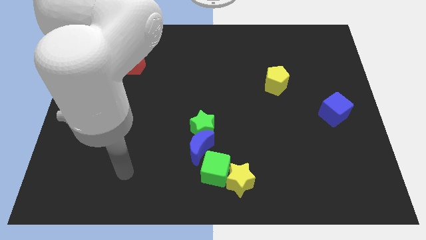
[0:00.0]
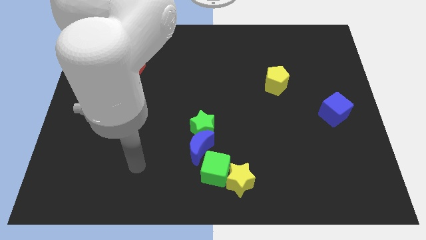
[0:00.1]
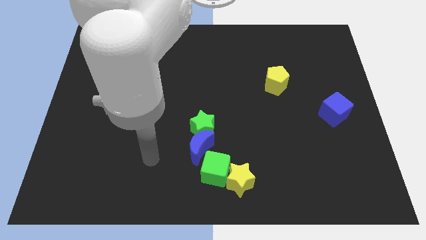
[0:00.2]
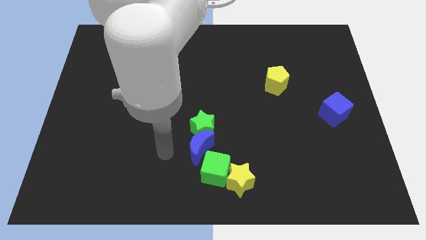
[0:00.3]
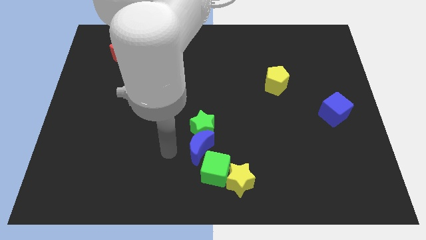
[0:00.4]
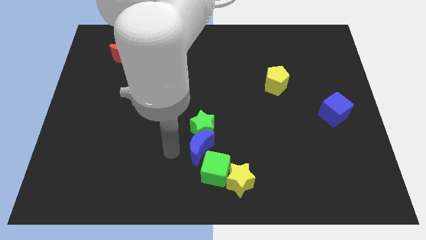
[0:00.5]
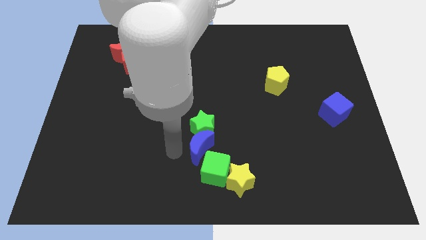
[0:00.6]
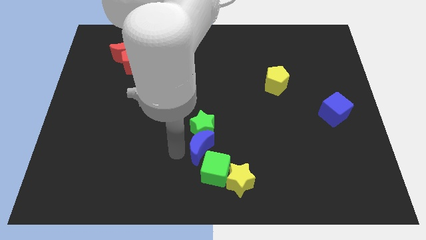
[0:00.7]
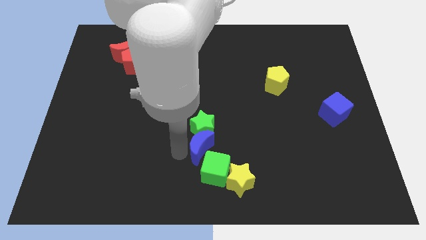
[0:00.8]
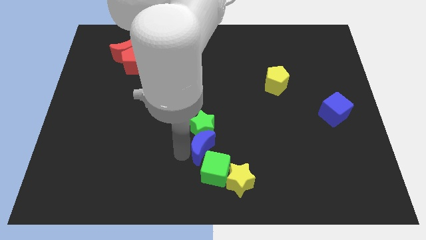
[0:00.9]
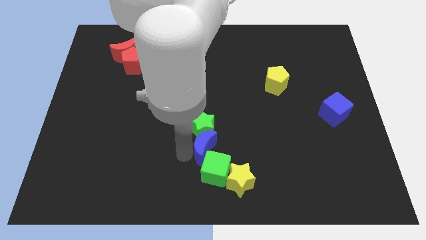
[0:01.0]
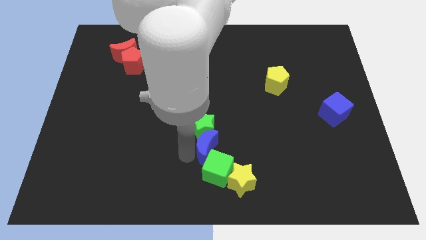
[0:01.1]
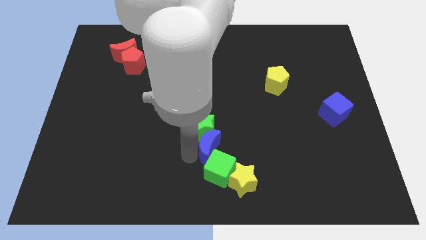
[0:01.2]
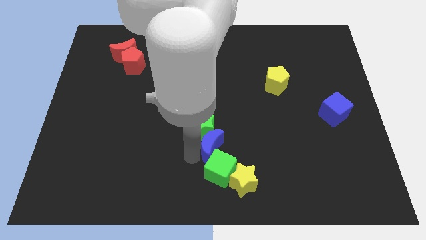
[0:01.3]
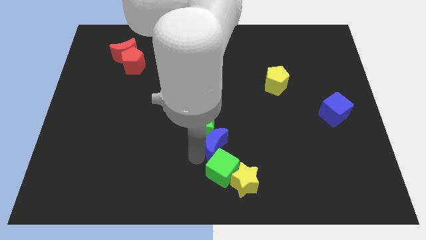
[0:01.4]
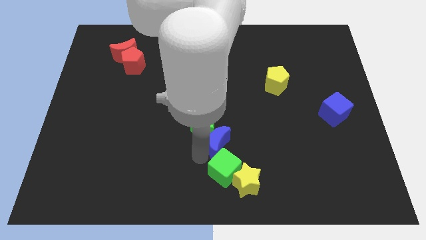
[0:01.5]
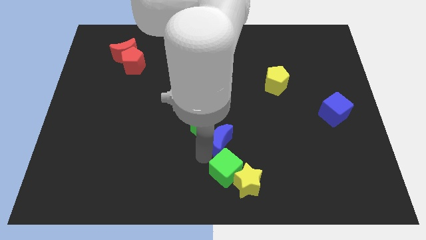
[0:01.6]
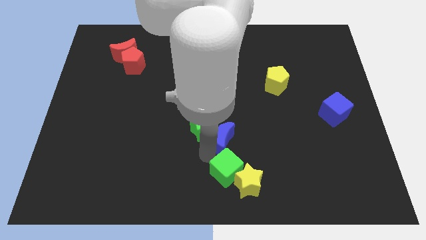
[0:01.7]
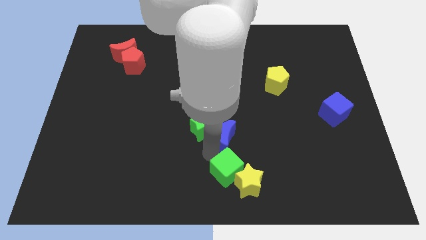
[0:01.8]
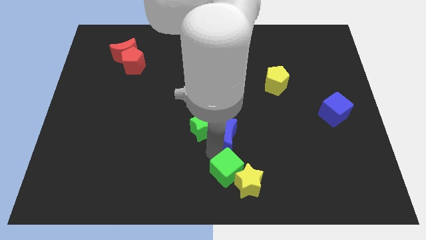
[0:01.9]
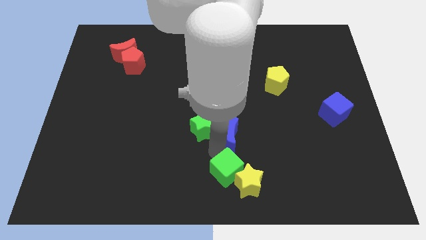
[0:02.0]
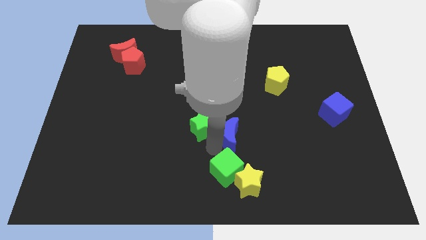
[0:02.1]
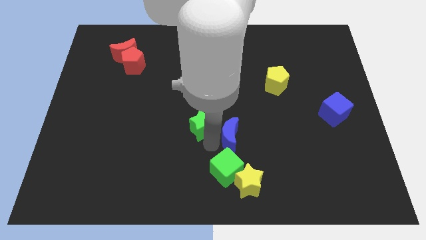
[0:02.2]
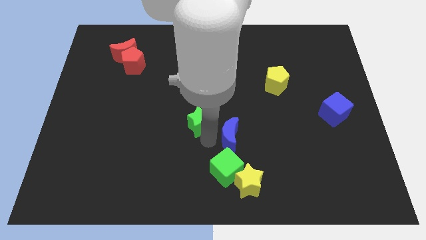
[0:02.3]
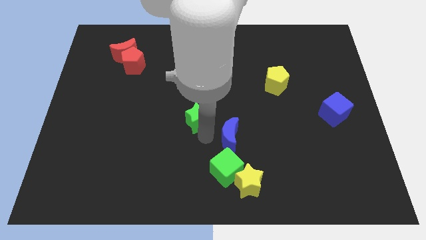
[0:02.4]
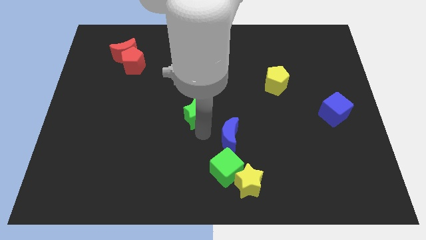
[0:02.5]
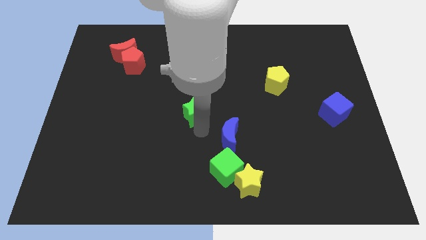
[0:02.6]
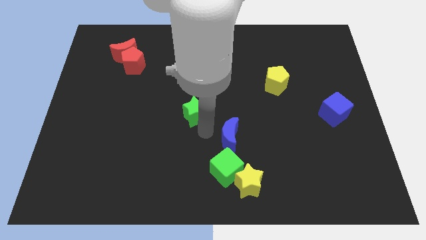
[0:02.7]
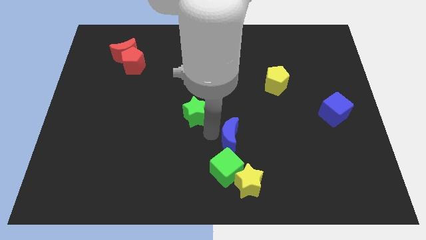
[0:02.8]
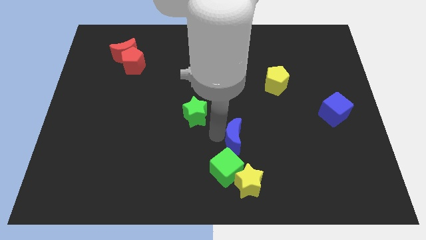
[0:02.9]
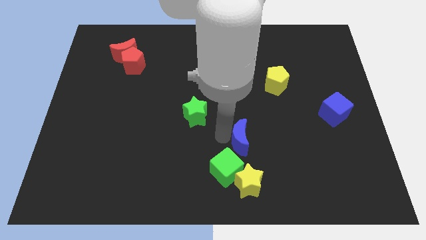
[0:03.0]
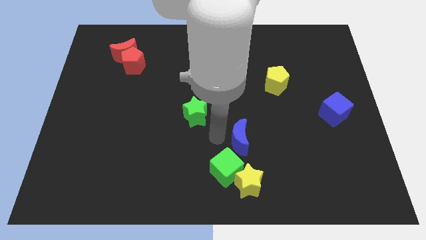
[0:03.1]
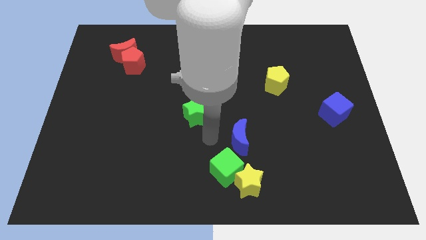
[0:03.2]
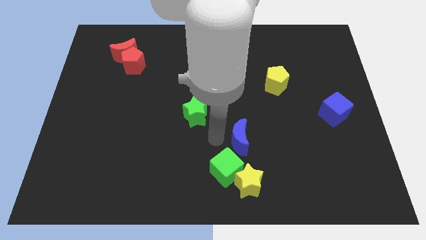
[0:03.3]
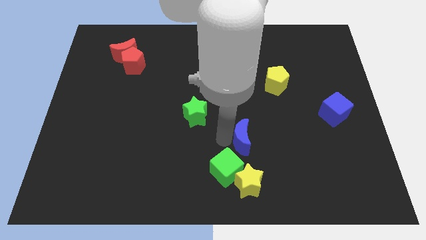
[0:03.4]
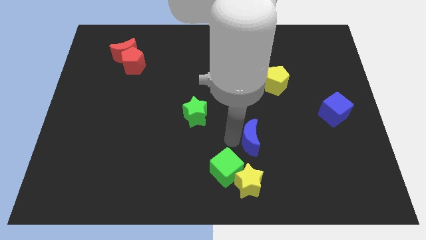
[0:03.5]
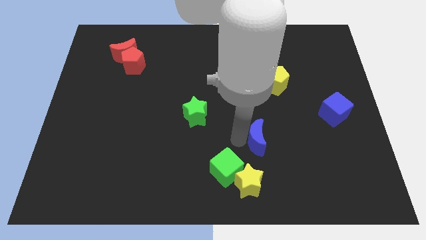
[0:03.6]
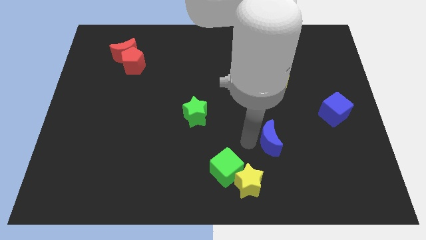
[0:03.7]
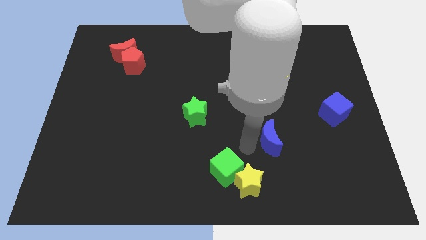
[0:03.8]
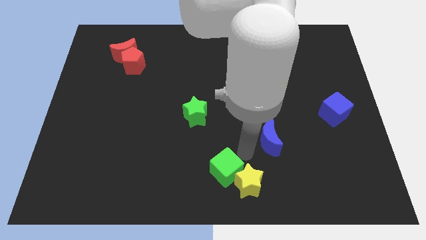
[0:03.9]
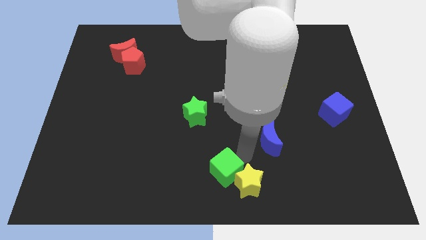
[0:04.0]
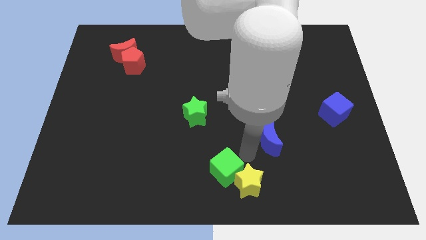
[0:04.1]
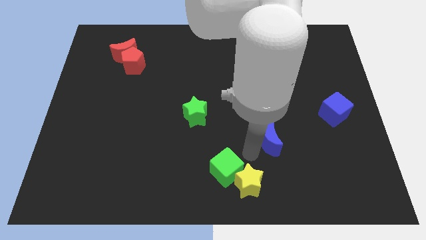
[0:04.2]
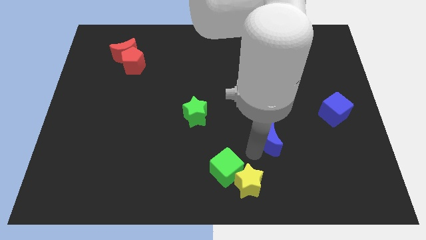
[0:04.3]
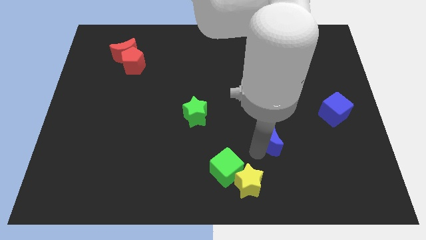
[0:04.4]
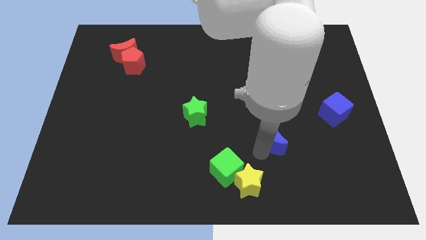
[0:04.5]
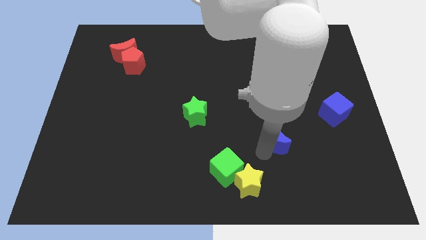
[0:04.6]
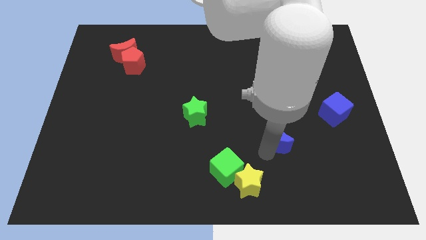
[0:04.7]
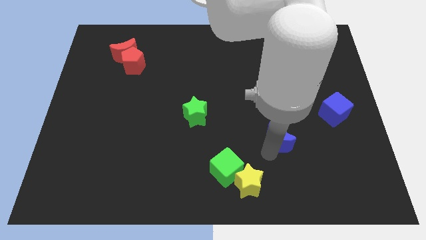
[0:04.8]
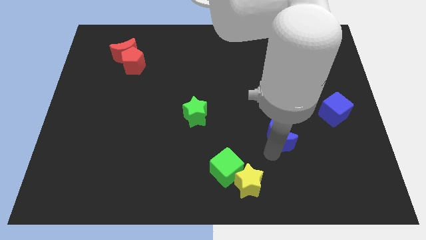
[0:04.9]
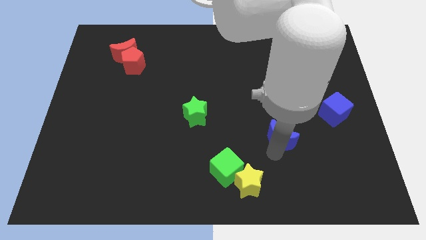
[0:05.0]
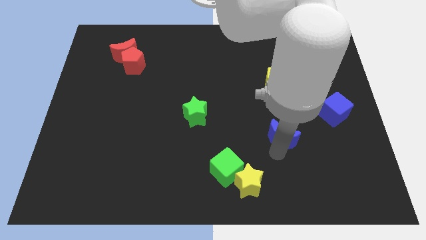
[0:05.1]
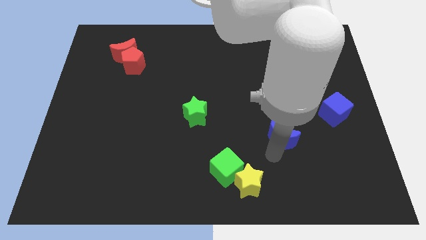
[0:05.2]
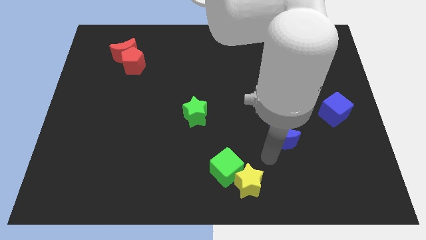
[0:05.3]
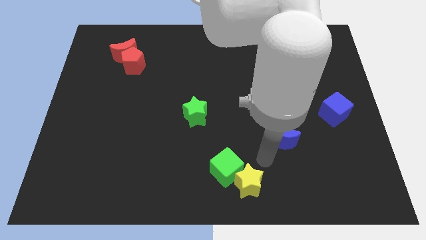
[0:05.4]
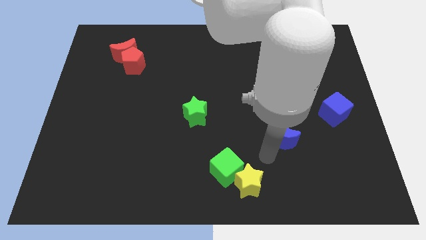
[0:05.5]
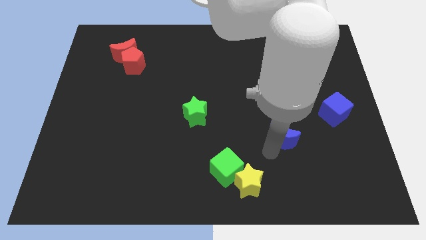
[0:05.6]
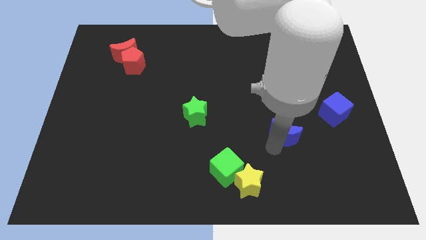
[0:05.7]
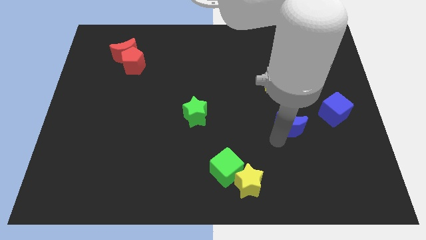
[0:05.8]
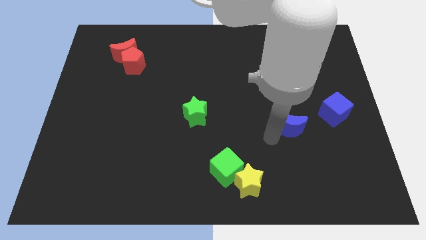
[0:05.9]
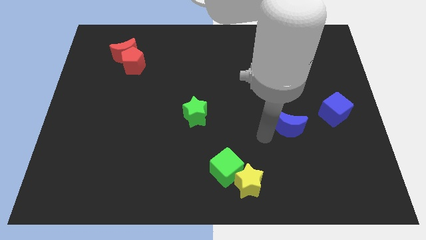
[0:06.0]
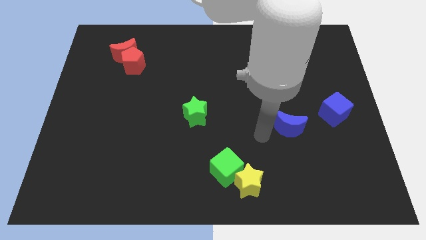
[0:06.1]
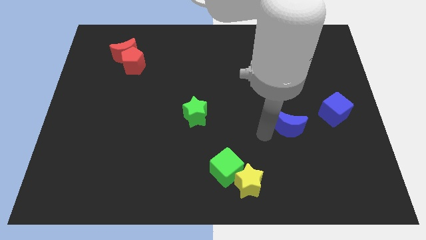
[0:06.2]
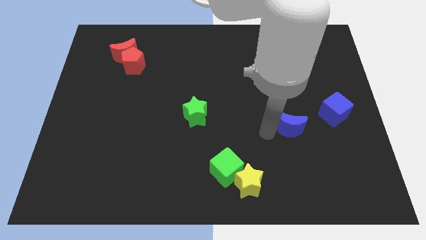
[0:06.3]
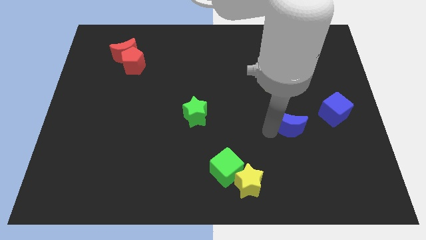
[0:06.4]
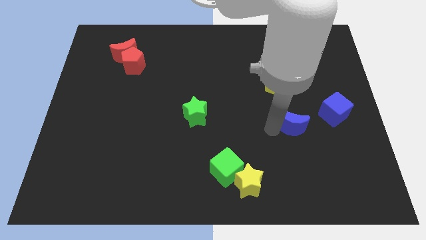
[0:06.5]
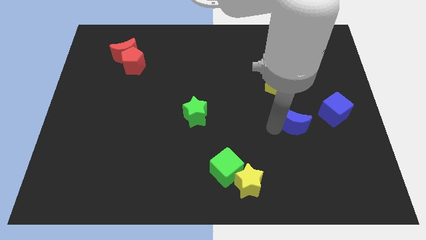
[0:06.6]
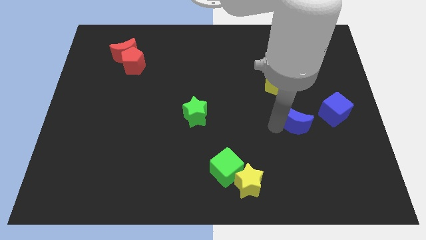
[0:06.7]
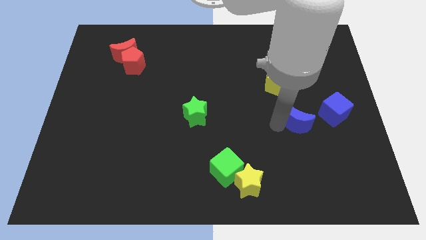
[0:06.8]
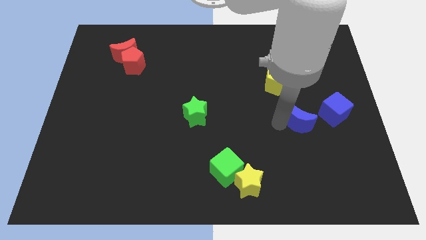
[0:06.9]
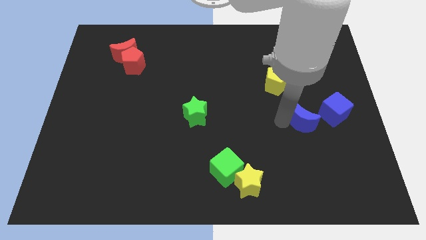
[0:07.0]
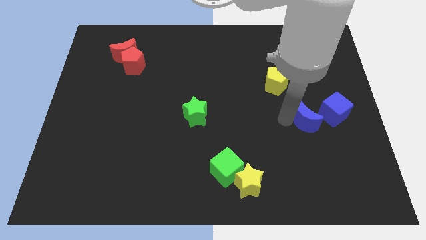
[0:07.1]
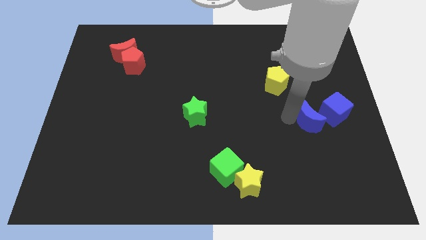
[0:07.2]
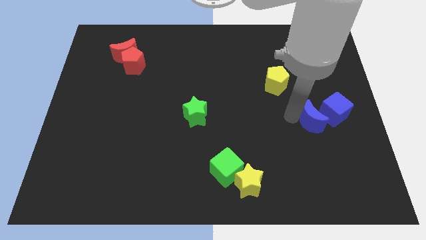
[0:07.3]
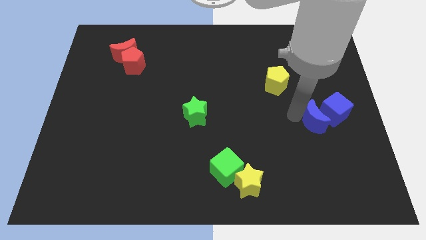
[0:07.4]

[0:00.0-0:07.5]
put the blue moon next to the blue cube

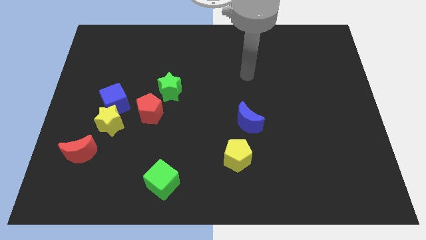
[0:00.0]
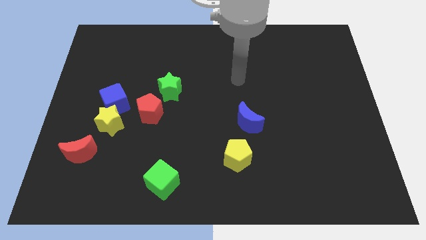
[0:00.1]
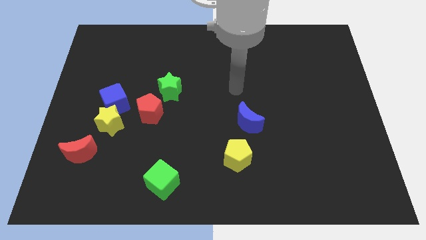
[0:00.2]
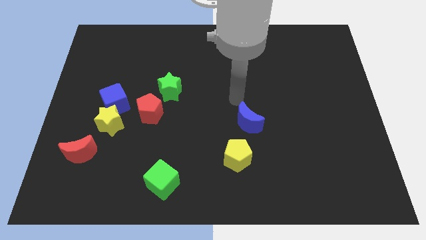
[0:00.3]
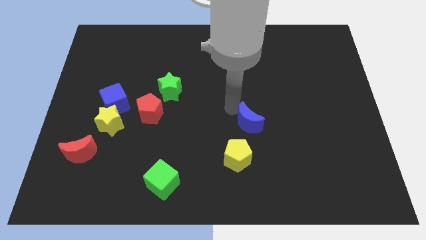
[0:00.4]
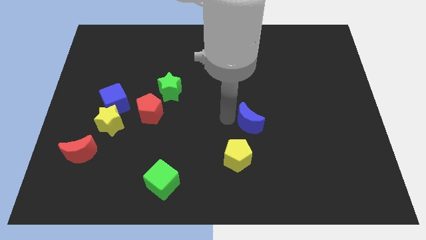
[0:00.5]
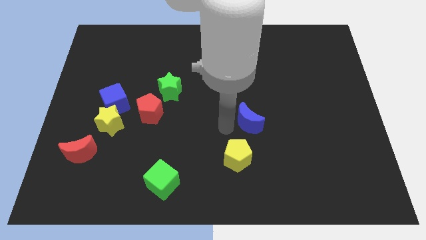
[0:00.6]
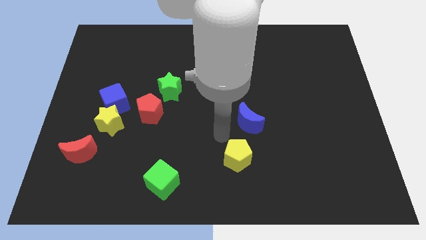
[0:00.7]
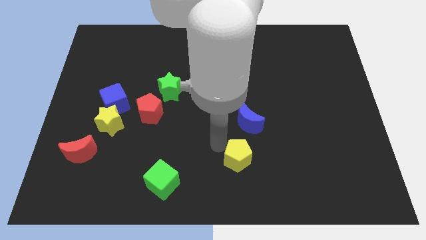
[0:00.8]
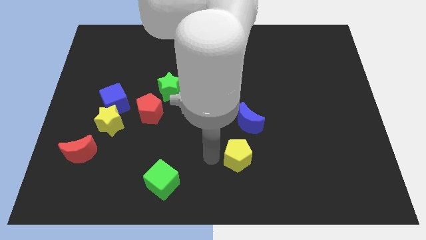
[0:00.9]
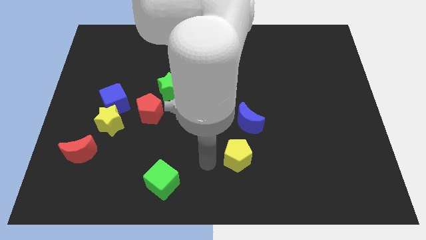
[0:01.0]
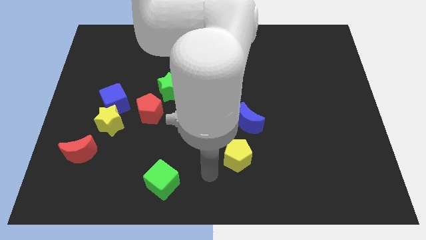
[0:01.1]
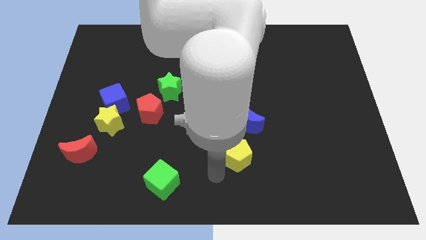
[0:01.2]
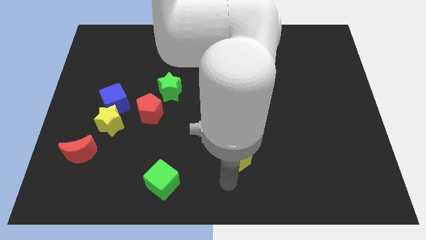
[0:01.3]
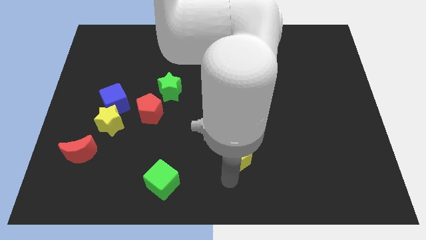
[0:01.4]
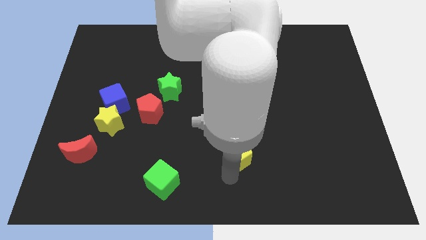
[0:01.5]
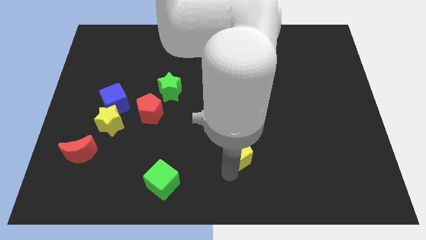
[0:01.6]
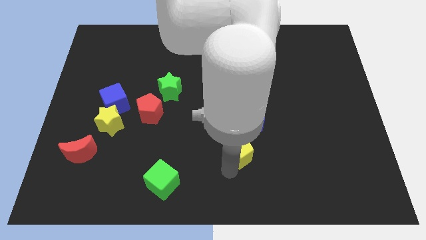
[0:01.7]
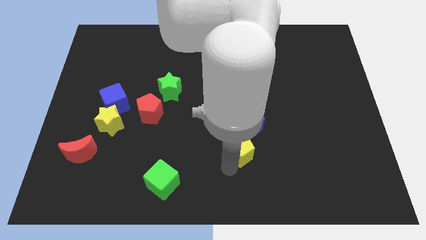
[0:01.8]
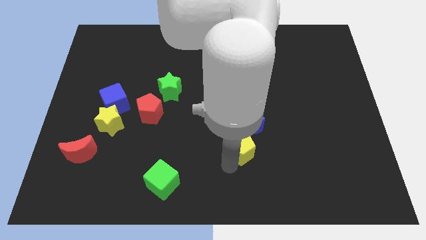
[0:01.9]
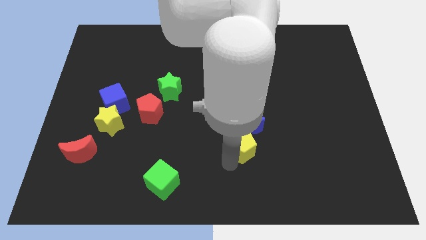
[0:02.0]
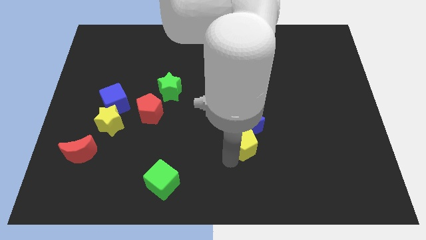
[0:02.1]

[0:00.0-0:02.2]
put the yellow pentagon towards the blue moon
